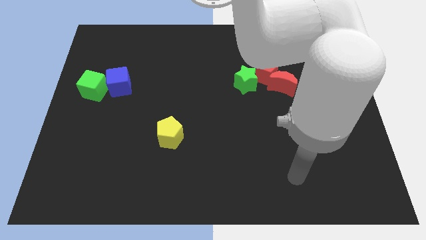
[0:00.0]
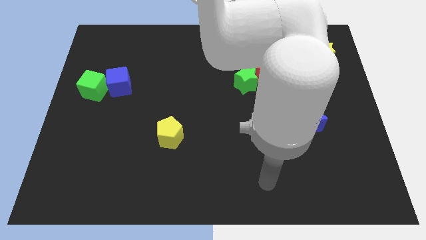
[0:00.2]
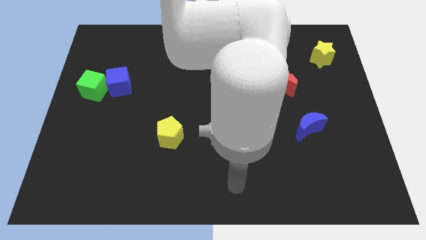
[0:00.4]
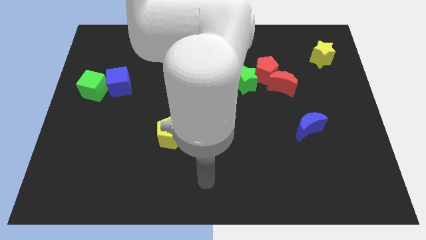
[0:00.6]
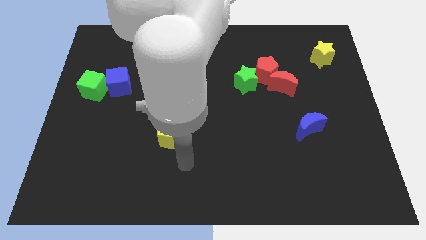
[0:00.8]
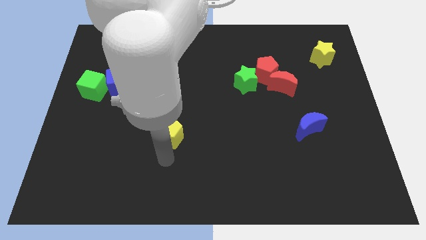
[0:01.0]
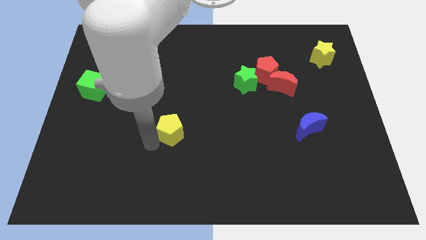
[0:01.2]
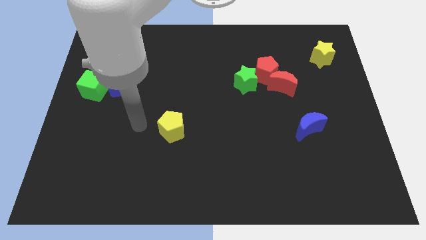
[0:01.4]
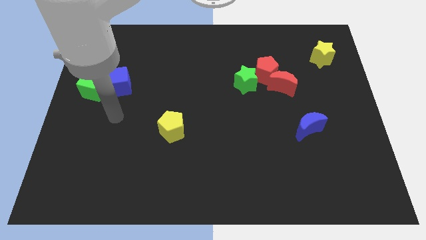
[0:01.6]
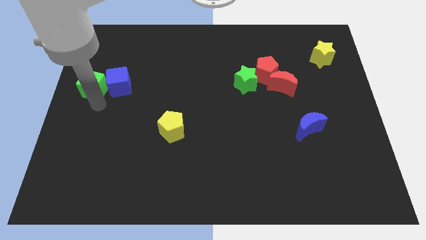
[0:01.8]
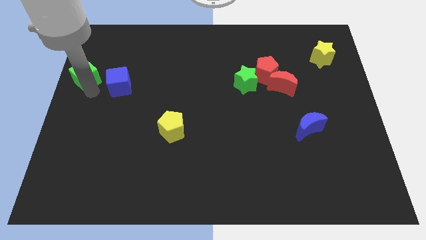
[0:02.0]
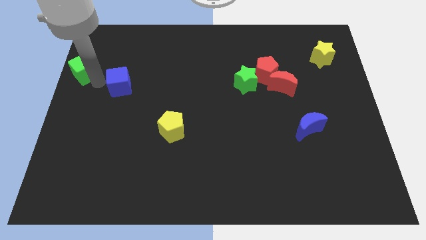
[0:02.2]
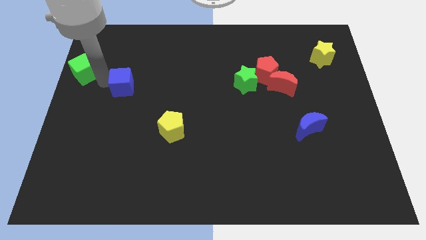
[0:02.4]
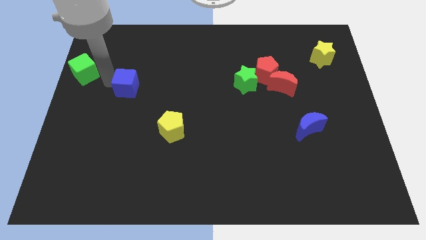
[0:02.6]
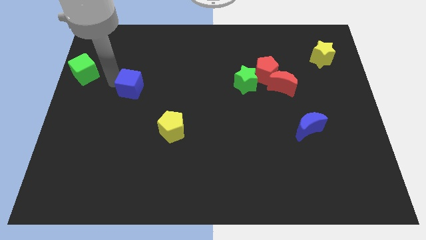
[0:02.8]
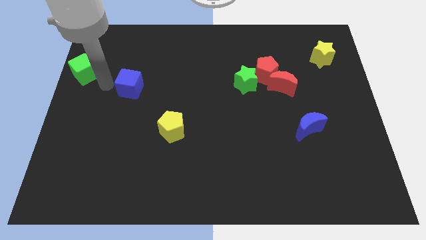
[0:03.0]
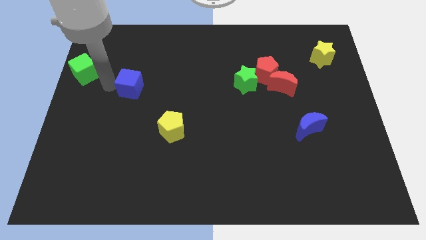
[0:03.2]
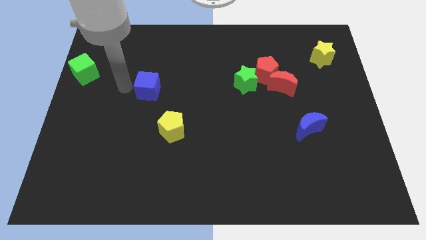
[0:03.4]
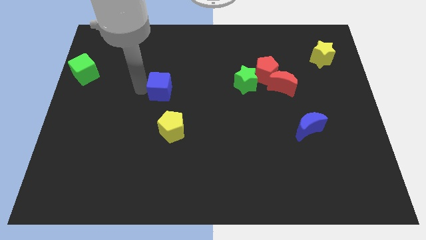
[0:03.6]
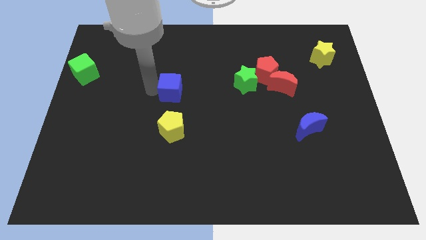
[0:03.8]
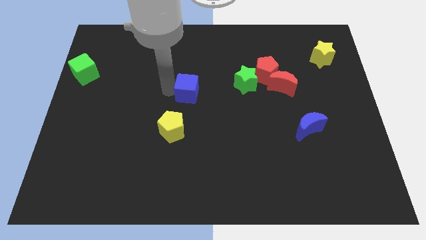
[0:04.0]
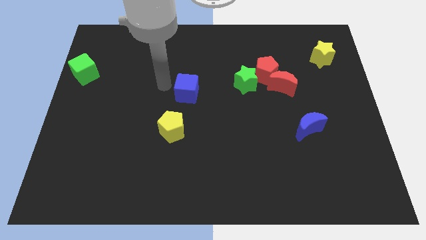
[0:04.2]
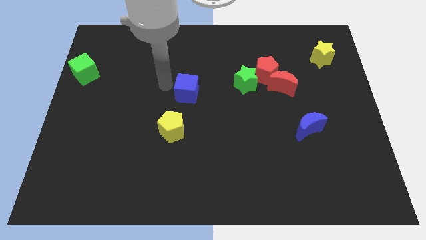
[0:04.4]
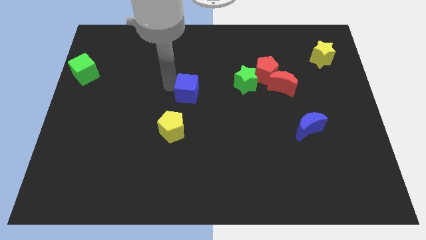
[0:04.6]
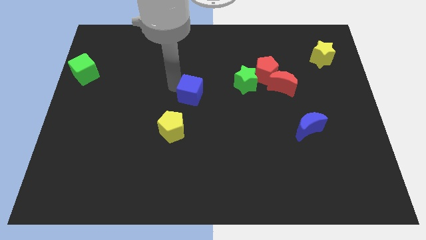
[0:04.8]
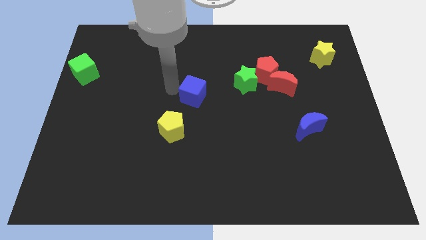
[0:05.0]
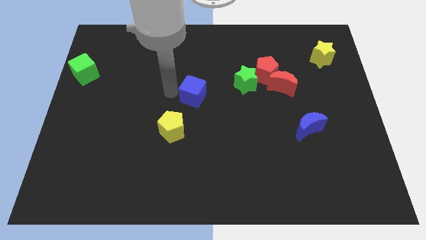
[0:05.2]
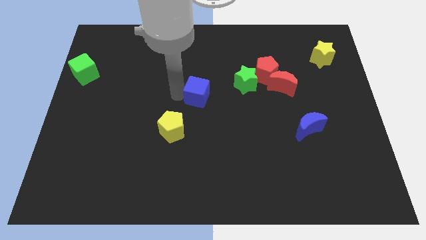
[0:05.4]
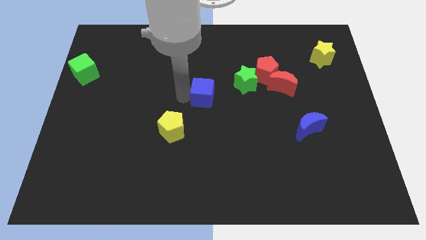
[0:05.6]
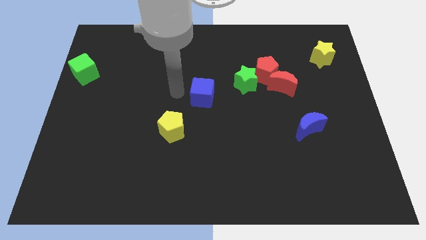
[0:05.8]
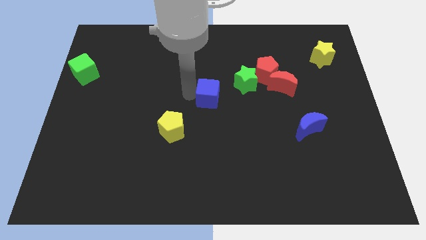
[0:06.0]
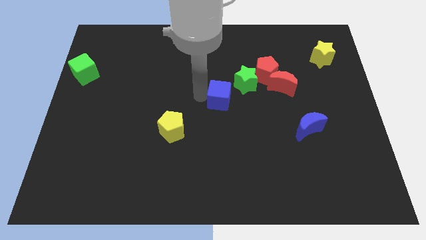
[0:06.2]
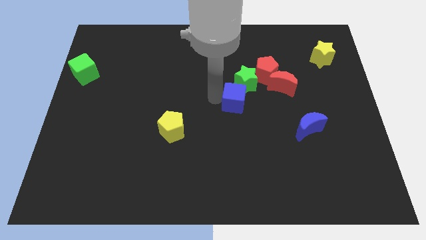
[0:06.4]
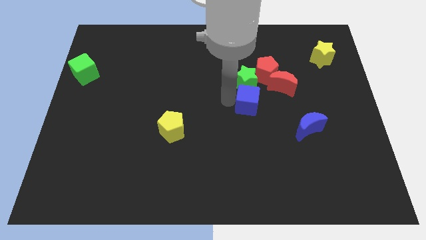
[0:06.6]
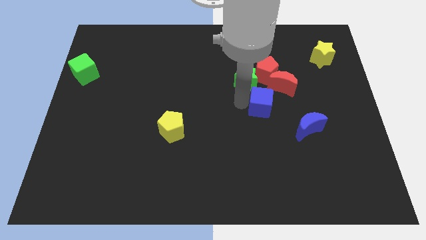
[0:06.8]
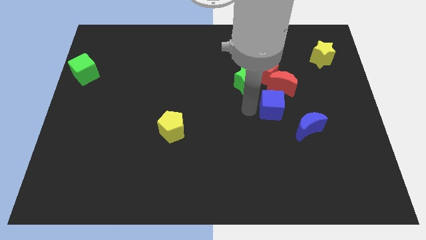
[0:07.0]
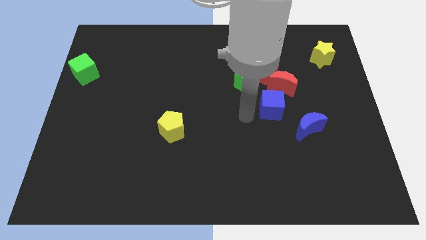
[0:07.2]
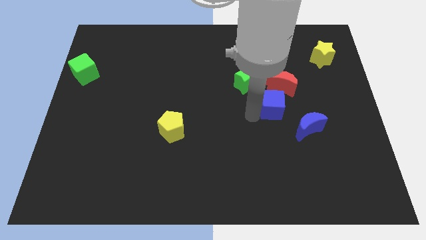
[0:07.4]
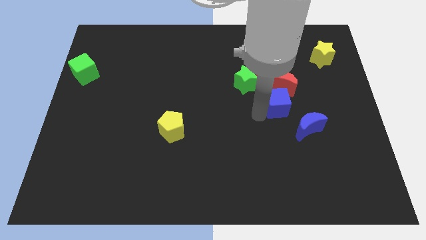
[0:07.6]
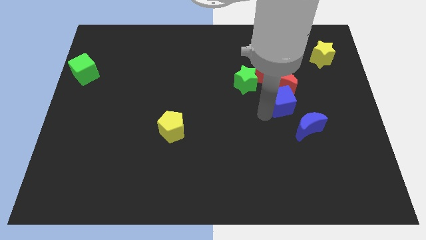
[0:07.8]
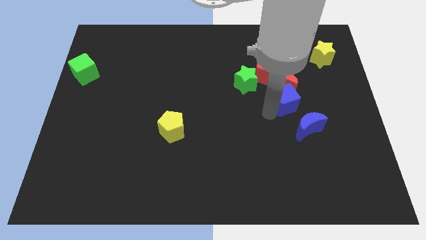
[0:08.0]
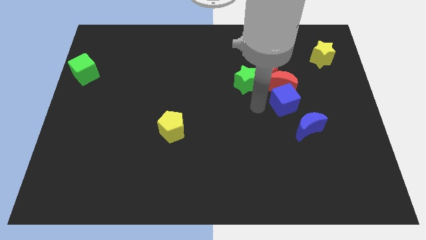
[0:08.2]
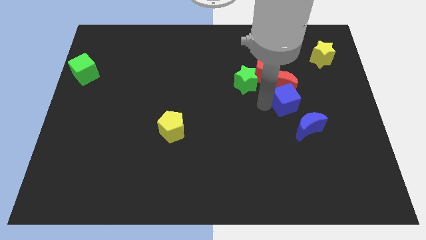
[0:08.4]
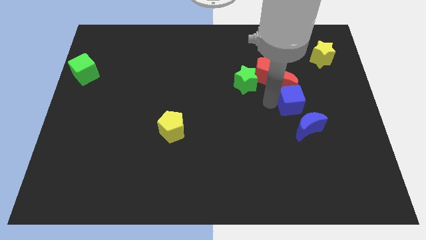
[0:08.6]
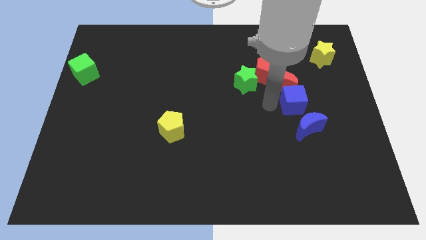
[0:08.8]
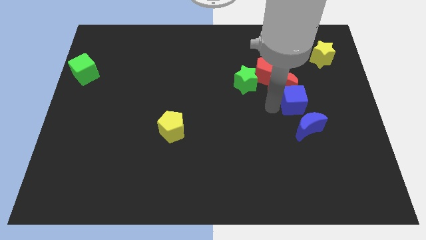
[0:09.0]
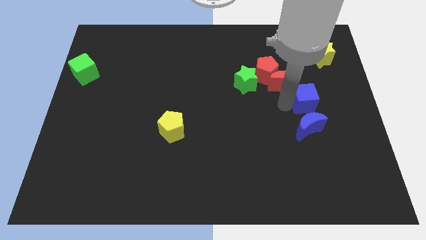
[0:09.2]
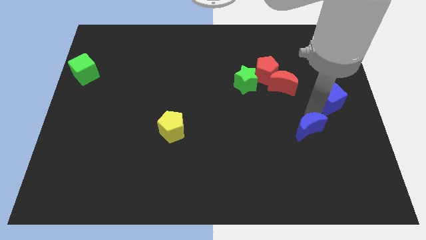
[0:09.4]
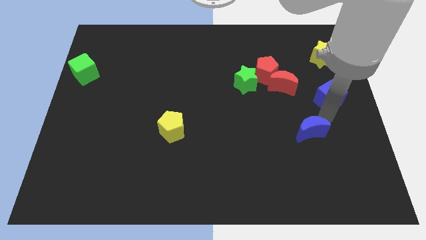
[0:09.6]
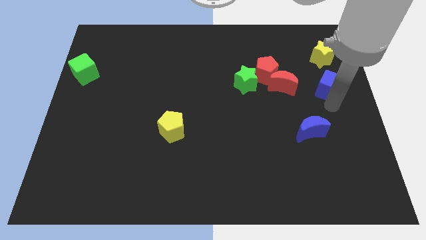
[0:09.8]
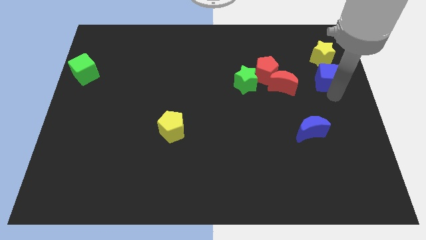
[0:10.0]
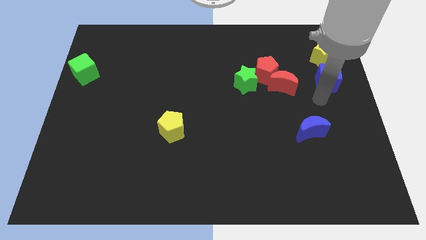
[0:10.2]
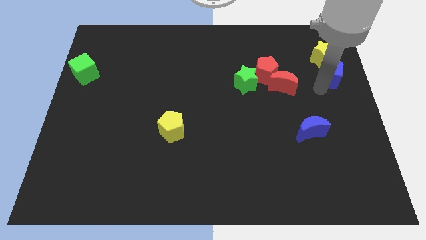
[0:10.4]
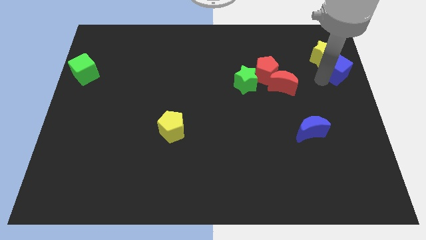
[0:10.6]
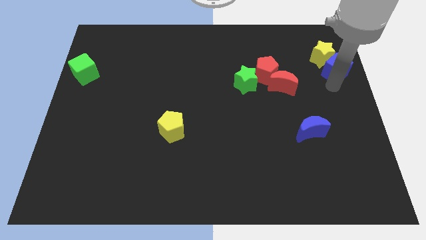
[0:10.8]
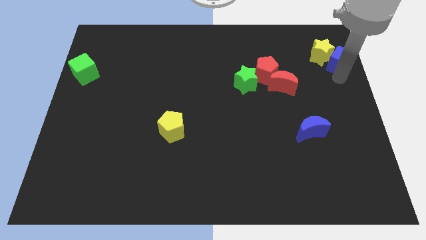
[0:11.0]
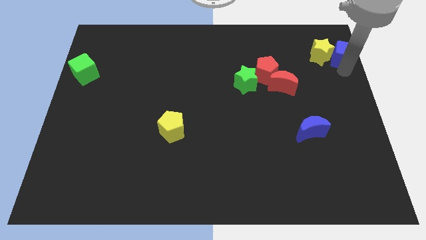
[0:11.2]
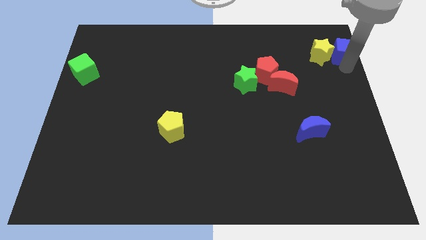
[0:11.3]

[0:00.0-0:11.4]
slide the blue cube to the upper right corner

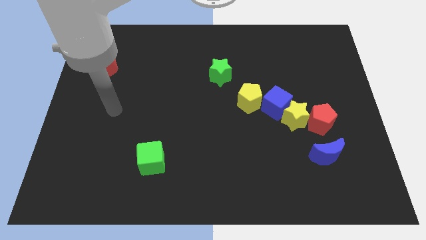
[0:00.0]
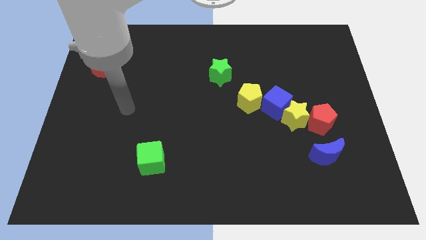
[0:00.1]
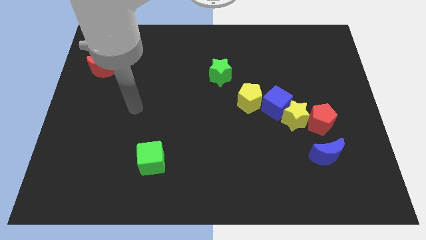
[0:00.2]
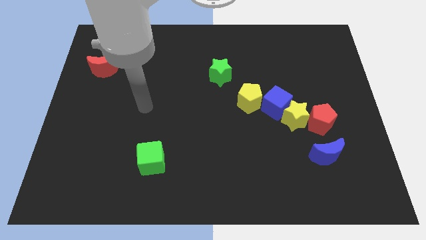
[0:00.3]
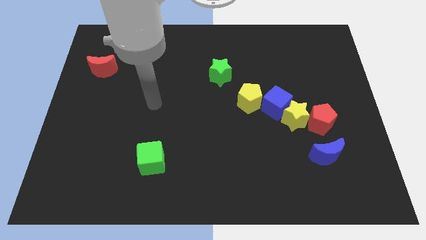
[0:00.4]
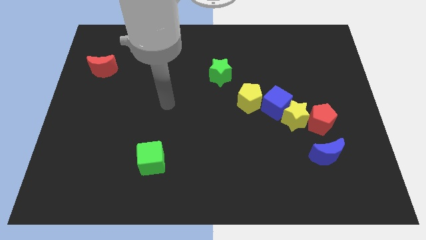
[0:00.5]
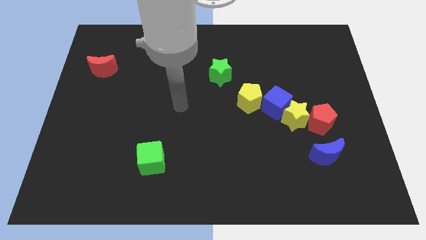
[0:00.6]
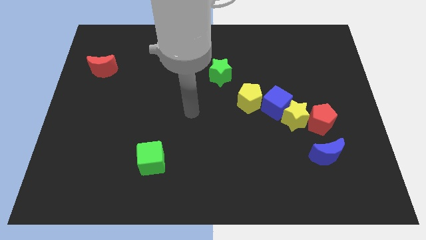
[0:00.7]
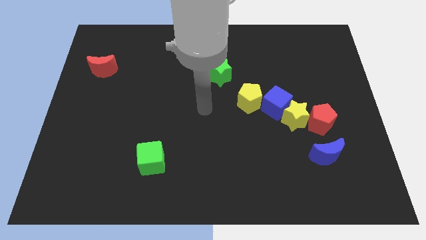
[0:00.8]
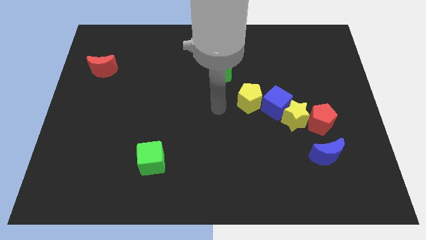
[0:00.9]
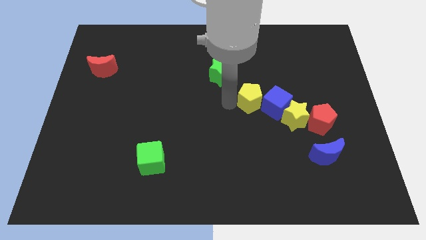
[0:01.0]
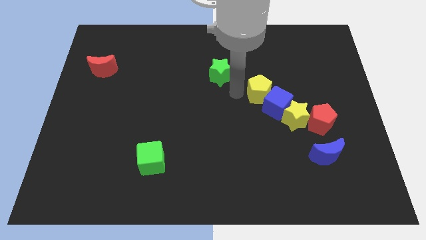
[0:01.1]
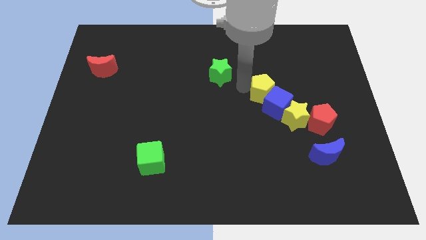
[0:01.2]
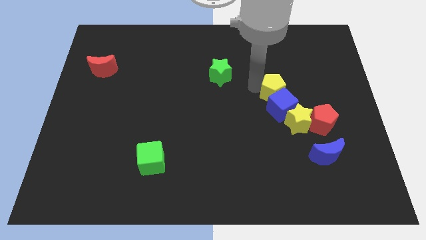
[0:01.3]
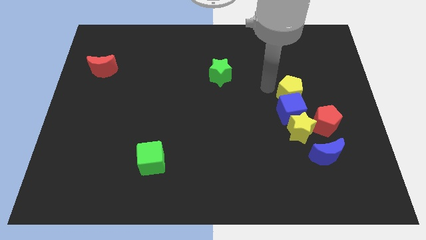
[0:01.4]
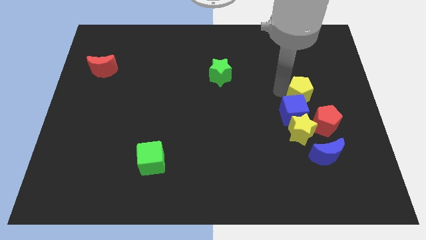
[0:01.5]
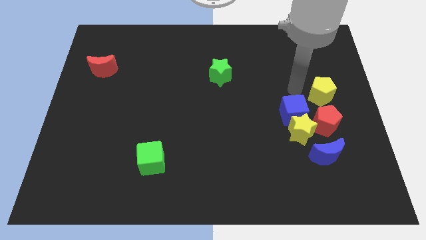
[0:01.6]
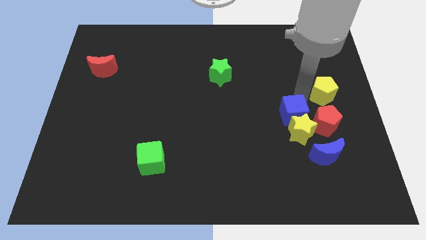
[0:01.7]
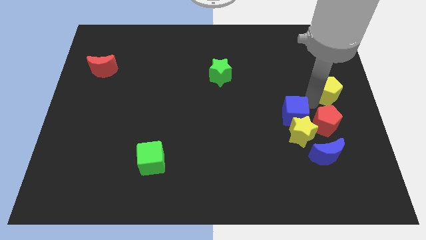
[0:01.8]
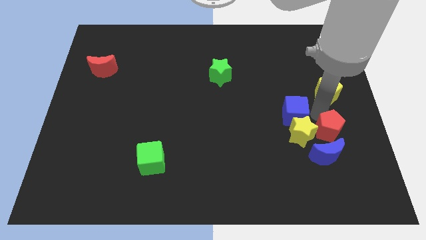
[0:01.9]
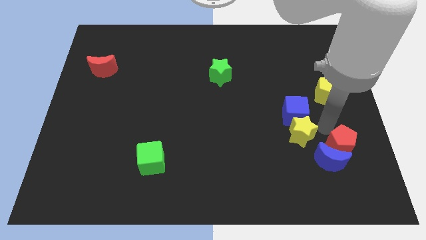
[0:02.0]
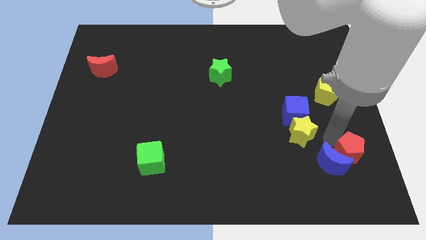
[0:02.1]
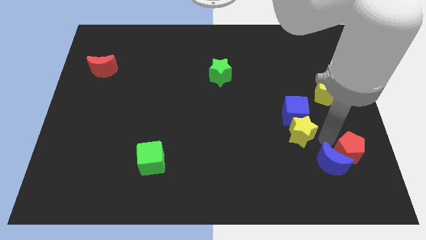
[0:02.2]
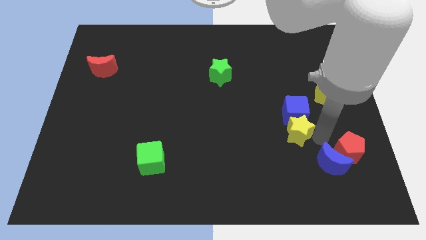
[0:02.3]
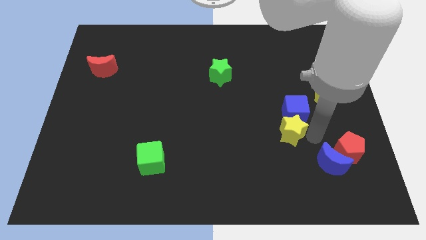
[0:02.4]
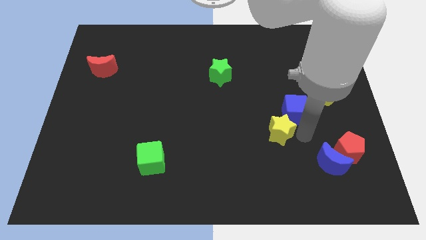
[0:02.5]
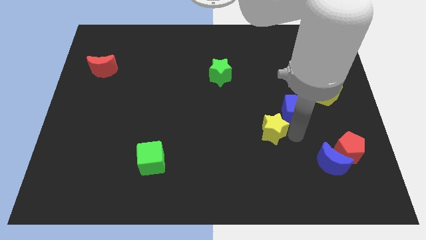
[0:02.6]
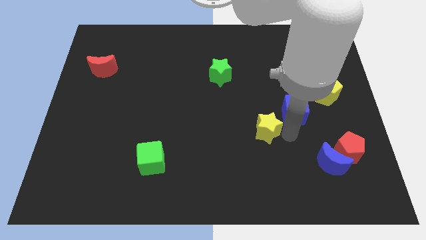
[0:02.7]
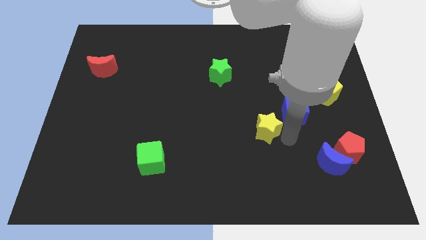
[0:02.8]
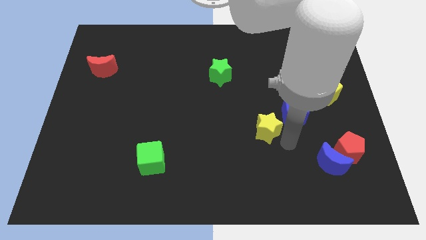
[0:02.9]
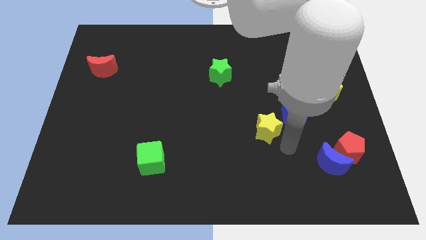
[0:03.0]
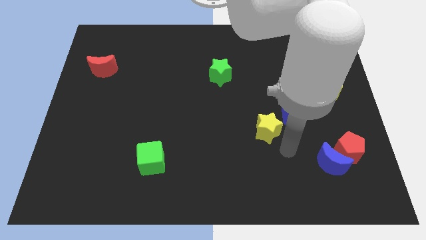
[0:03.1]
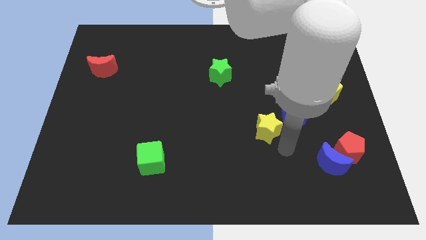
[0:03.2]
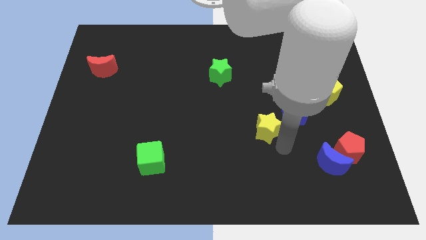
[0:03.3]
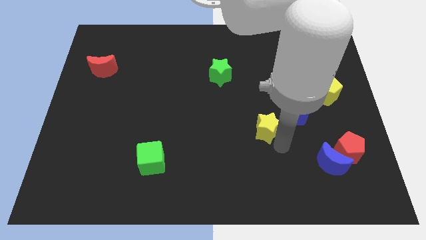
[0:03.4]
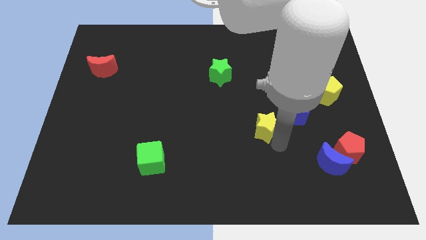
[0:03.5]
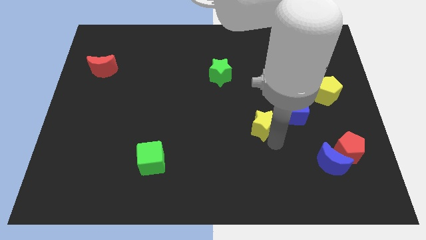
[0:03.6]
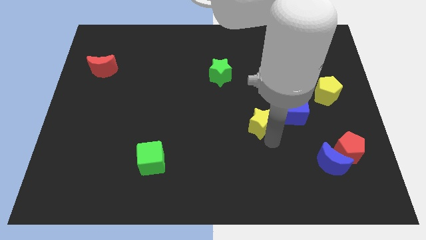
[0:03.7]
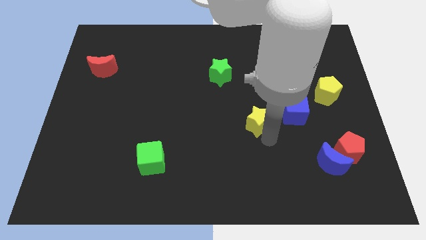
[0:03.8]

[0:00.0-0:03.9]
push the yellow star to the middle of the board
